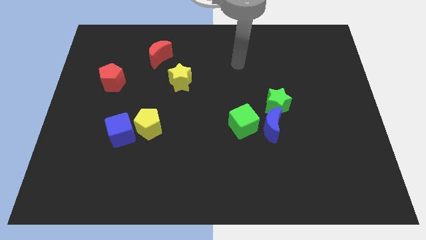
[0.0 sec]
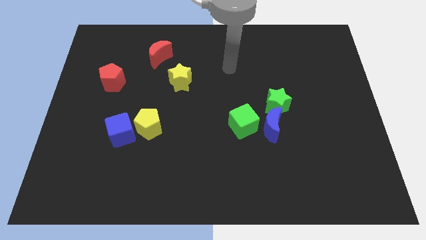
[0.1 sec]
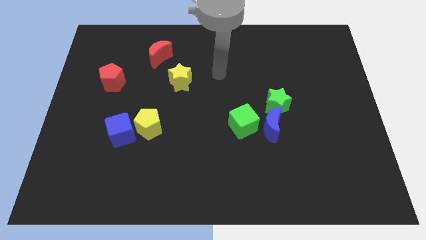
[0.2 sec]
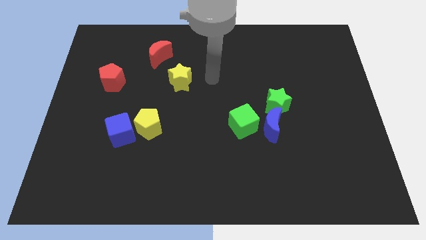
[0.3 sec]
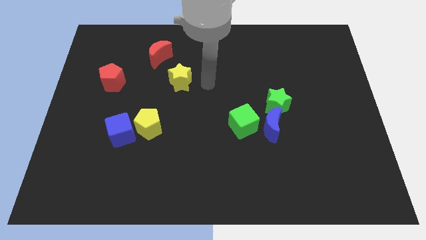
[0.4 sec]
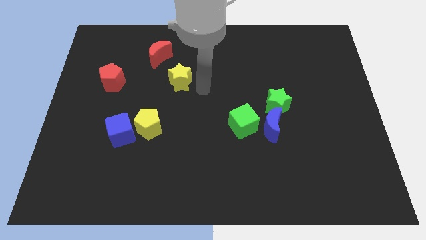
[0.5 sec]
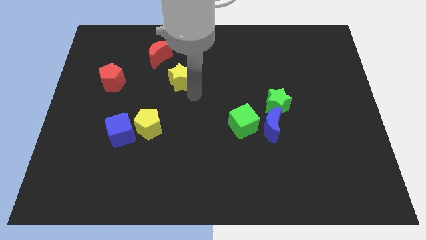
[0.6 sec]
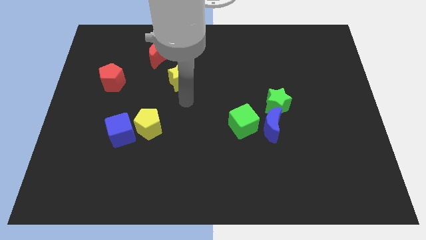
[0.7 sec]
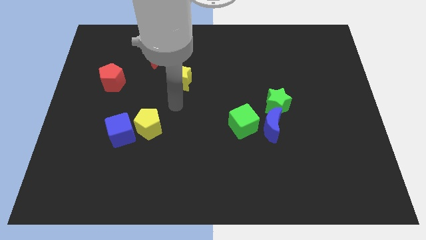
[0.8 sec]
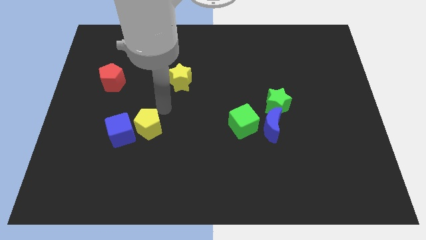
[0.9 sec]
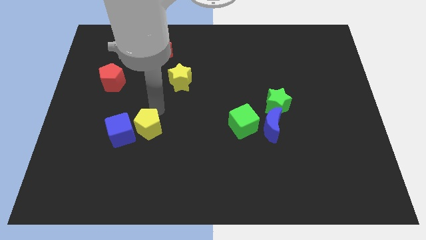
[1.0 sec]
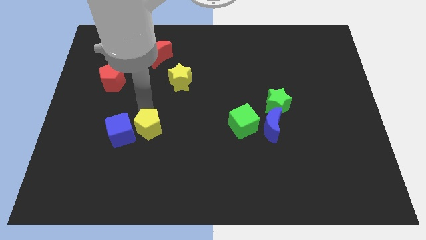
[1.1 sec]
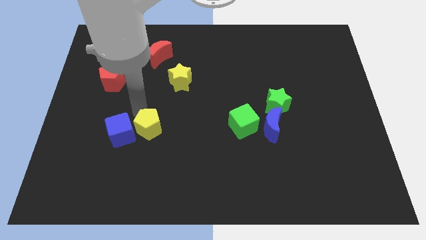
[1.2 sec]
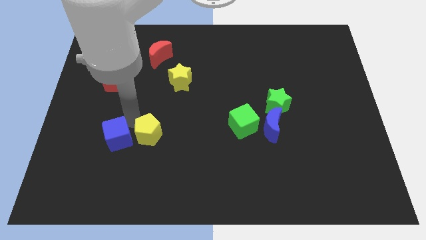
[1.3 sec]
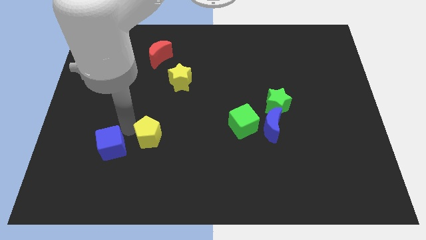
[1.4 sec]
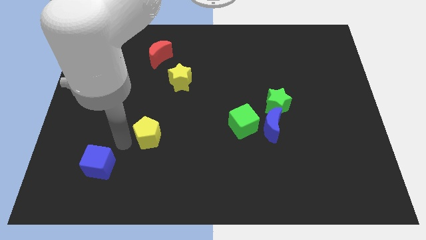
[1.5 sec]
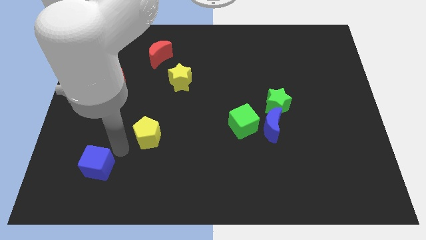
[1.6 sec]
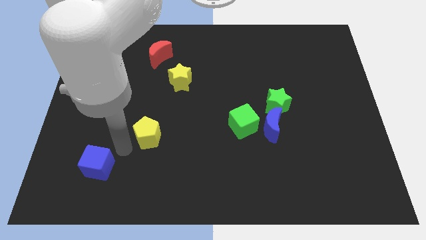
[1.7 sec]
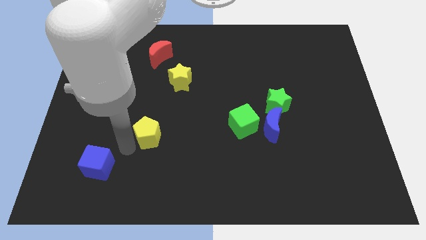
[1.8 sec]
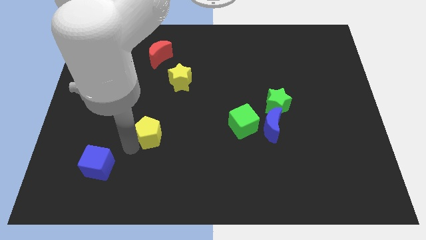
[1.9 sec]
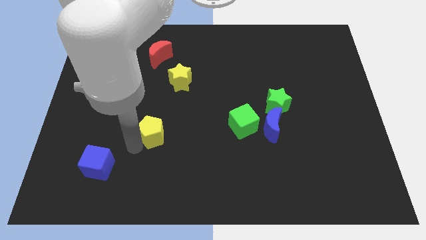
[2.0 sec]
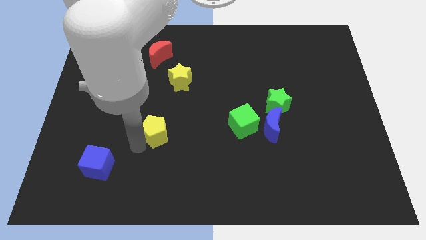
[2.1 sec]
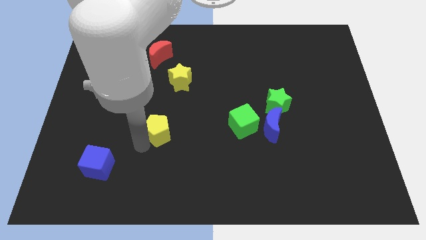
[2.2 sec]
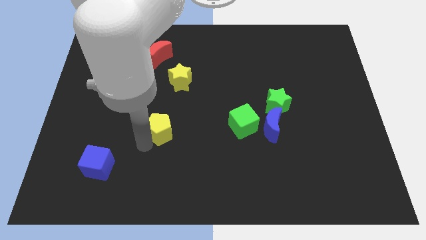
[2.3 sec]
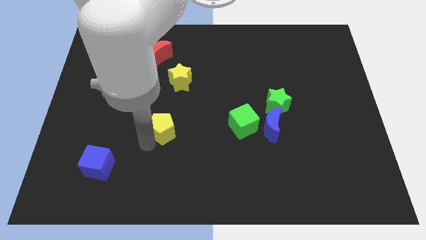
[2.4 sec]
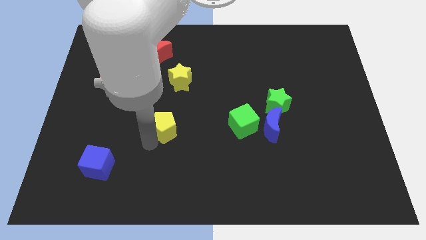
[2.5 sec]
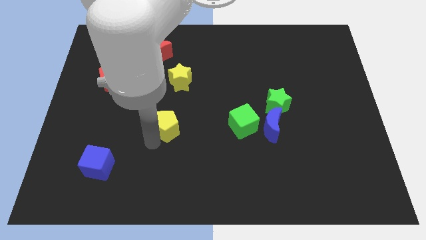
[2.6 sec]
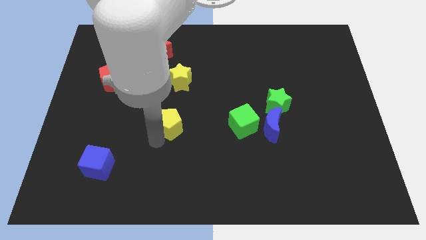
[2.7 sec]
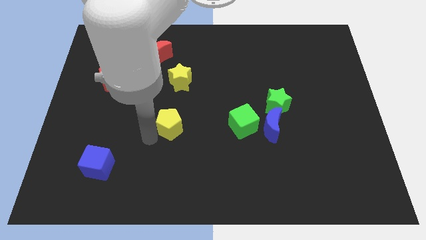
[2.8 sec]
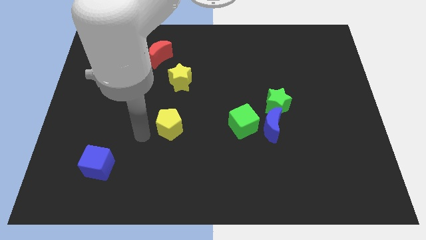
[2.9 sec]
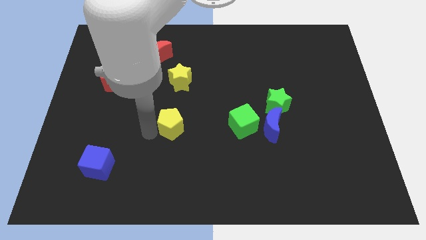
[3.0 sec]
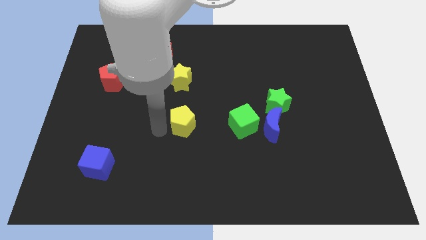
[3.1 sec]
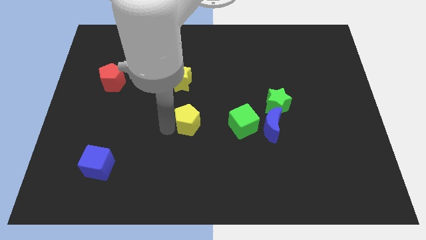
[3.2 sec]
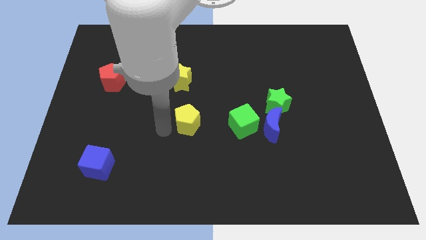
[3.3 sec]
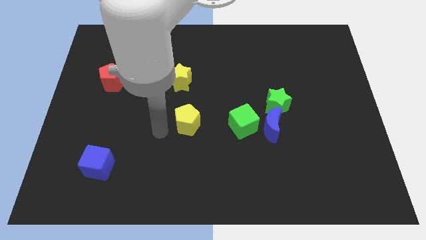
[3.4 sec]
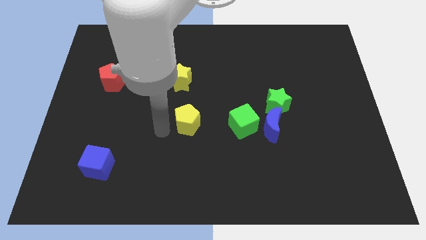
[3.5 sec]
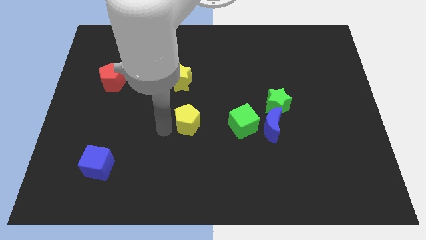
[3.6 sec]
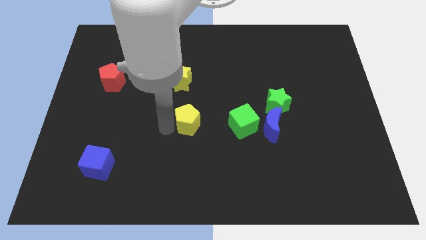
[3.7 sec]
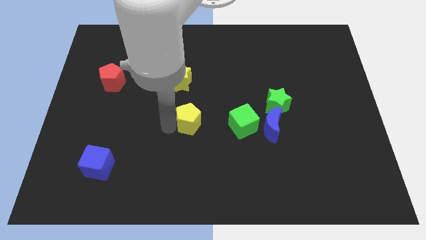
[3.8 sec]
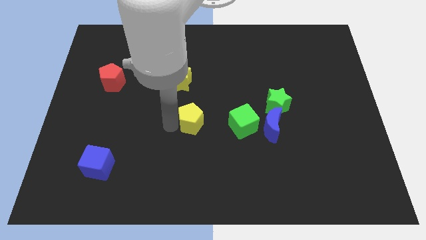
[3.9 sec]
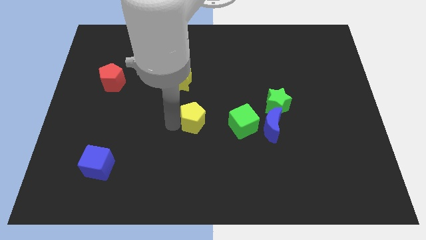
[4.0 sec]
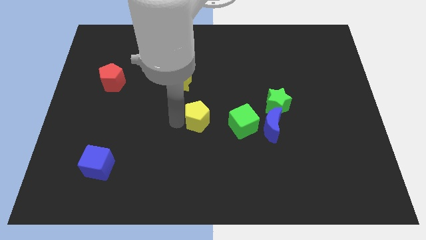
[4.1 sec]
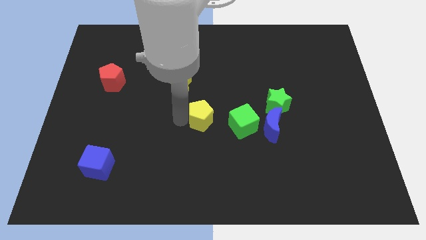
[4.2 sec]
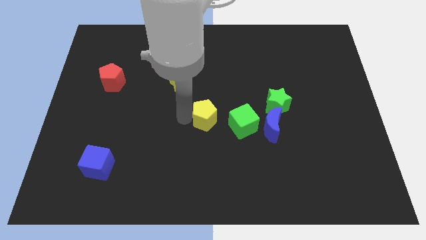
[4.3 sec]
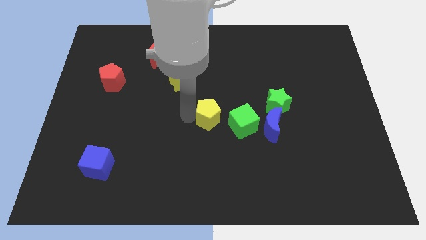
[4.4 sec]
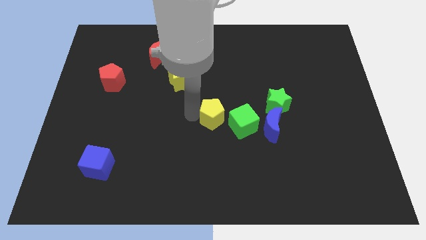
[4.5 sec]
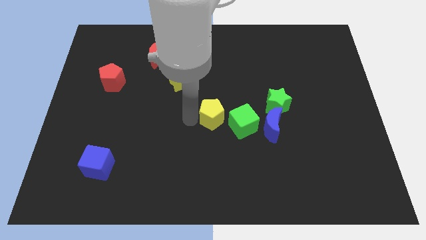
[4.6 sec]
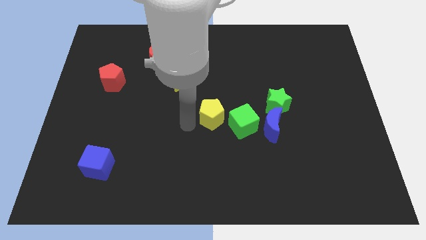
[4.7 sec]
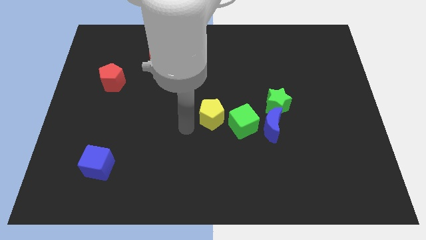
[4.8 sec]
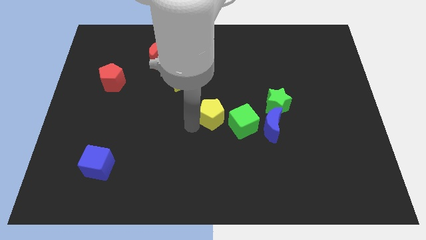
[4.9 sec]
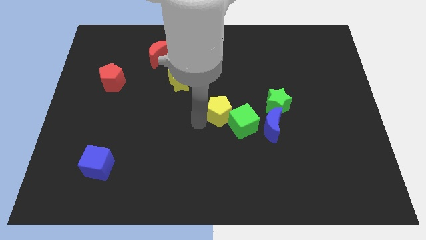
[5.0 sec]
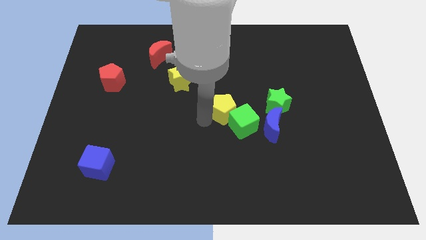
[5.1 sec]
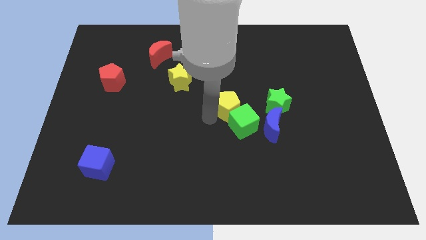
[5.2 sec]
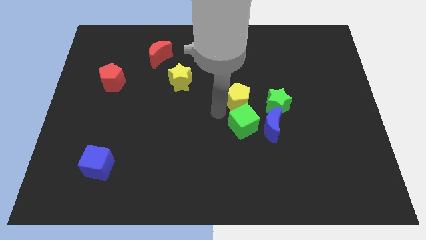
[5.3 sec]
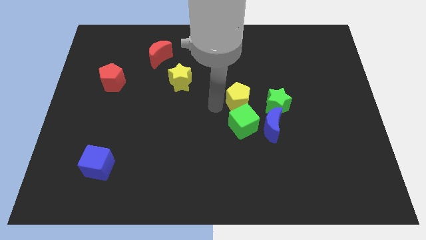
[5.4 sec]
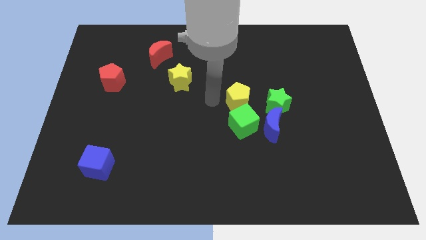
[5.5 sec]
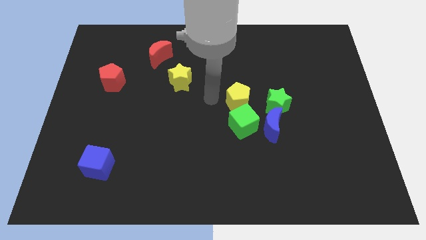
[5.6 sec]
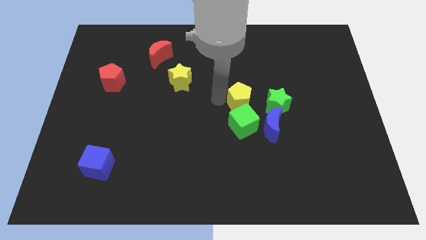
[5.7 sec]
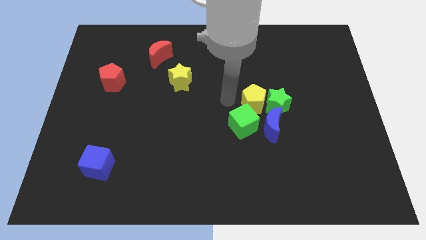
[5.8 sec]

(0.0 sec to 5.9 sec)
put the yellow pentagon to the green star

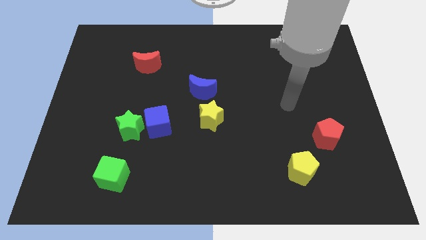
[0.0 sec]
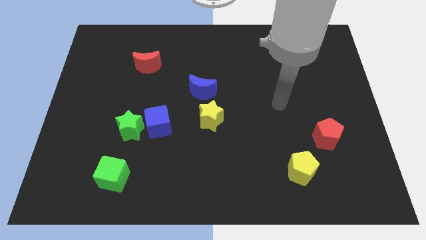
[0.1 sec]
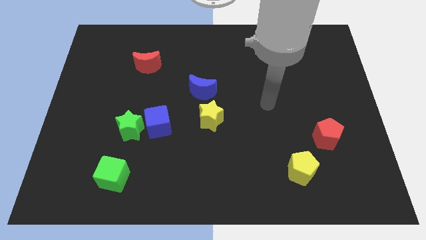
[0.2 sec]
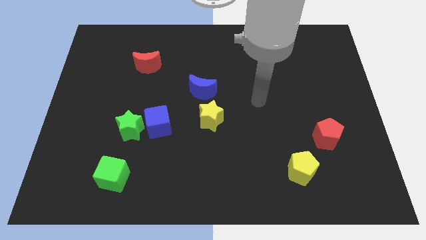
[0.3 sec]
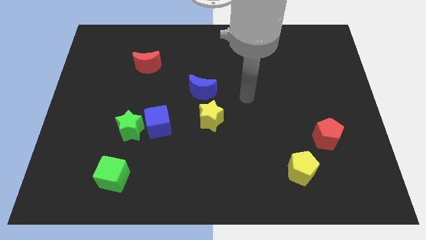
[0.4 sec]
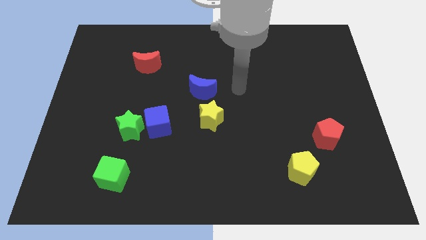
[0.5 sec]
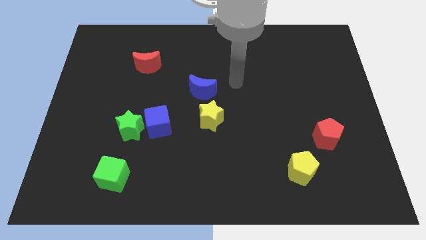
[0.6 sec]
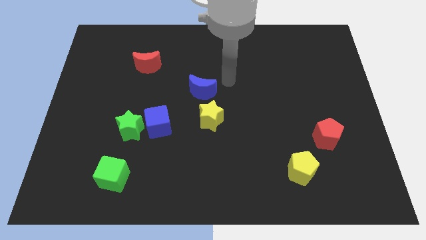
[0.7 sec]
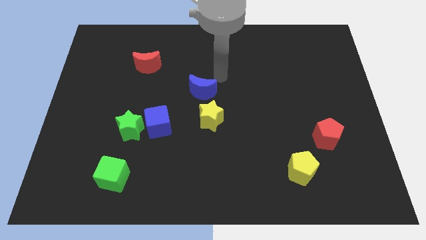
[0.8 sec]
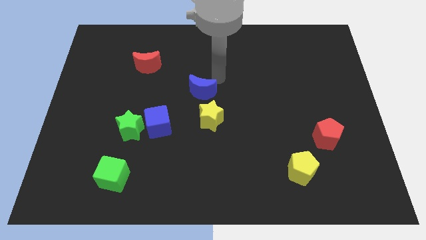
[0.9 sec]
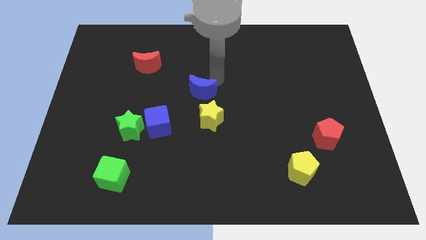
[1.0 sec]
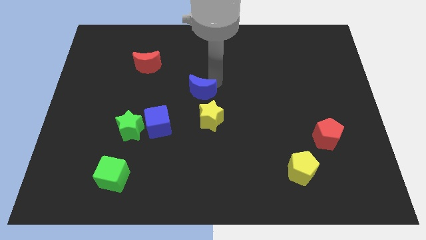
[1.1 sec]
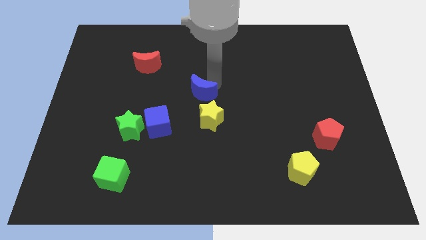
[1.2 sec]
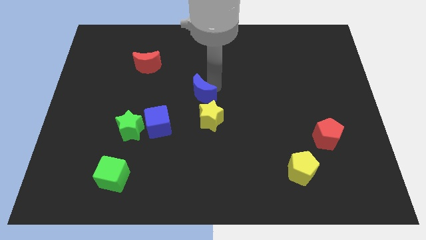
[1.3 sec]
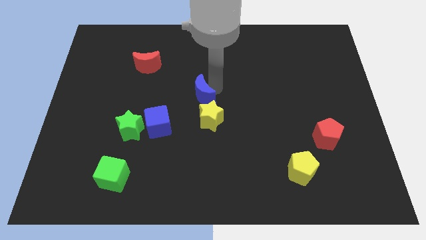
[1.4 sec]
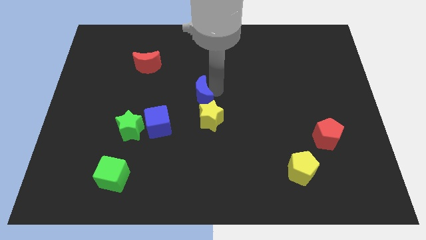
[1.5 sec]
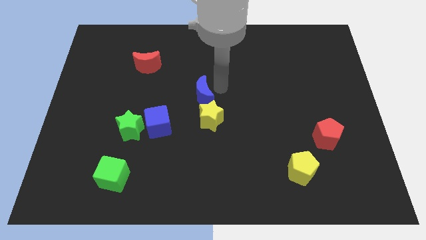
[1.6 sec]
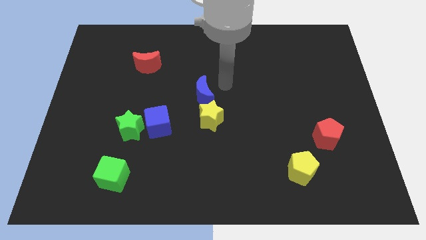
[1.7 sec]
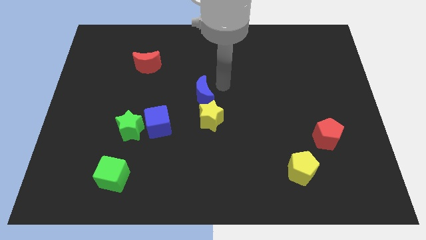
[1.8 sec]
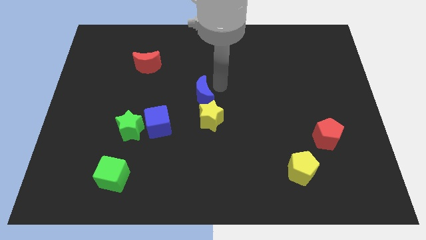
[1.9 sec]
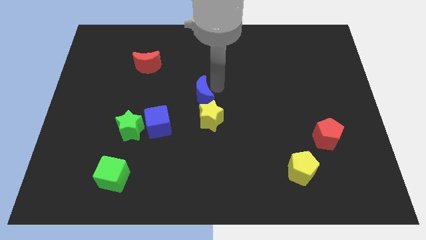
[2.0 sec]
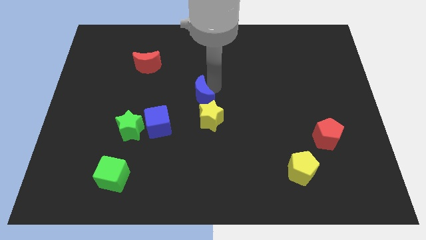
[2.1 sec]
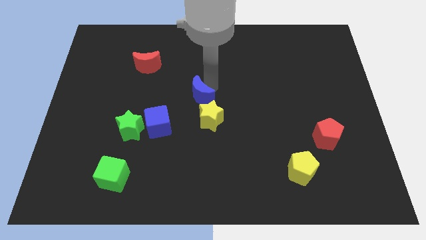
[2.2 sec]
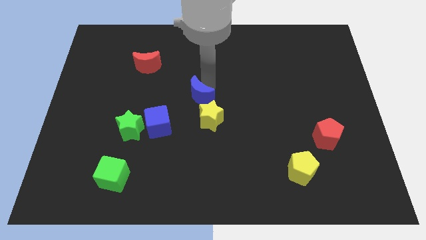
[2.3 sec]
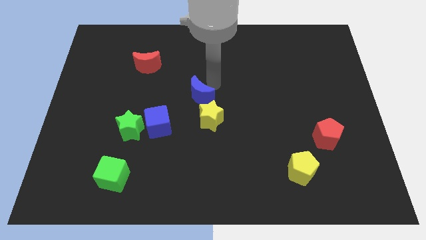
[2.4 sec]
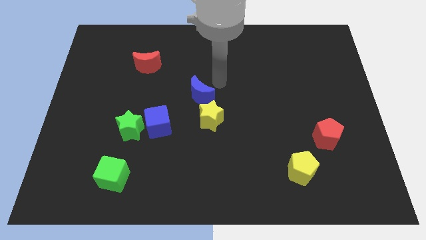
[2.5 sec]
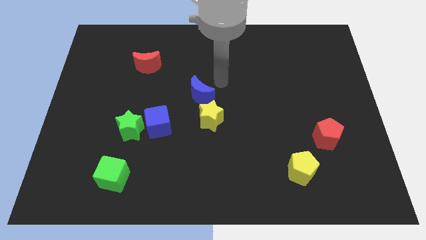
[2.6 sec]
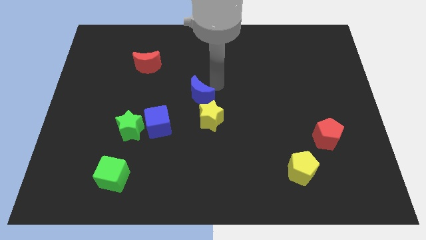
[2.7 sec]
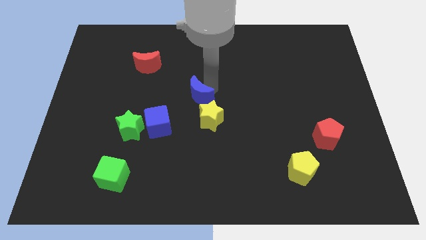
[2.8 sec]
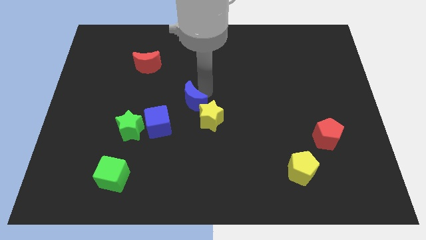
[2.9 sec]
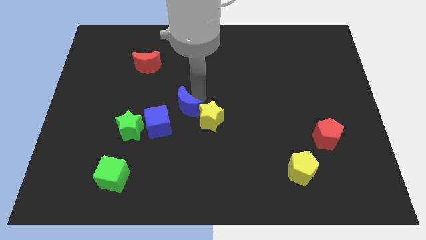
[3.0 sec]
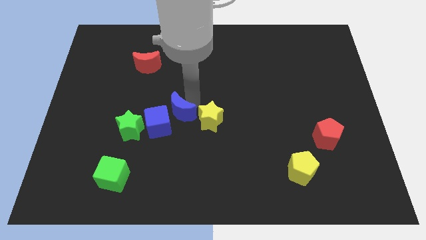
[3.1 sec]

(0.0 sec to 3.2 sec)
put the blue moon close to the blue cube
